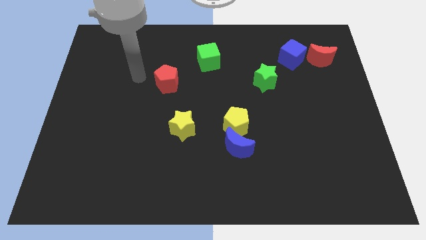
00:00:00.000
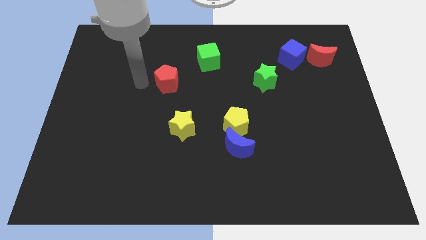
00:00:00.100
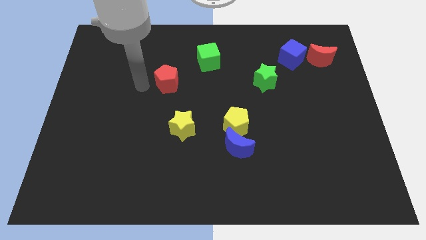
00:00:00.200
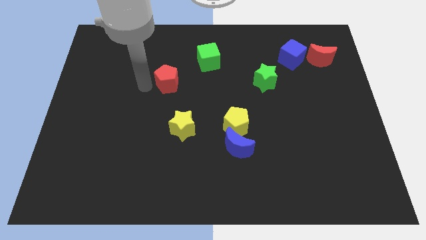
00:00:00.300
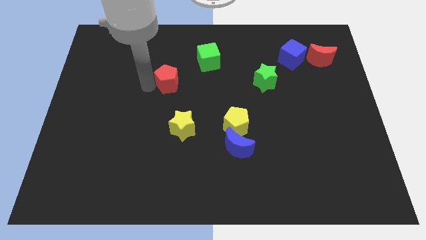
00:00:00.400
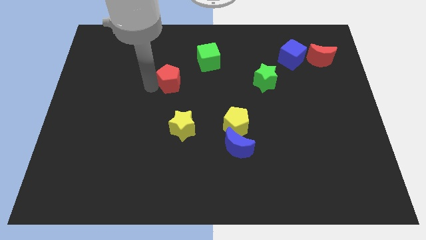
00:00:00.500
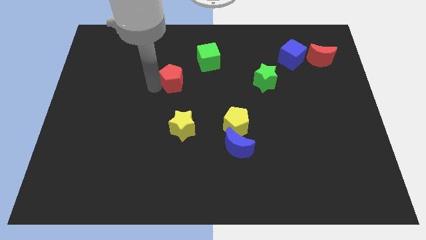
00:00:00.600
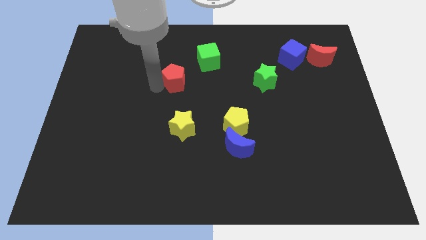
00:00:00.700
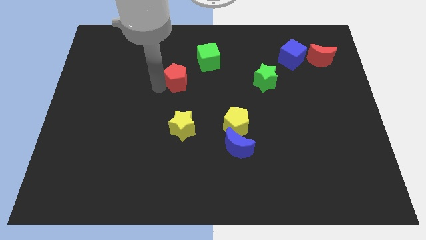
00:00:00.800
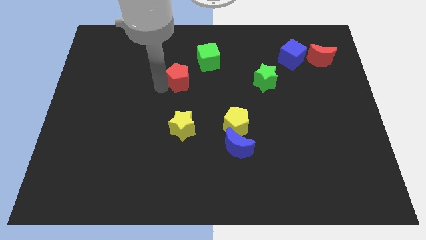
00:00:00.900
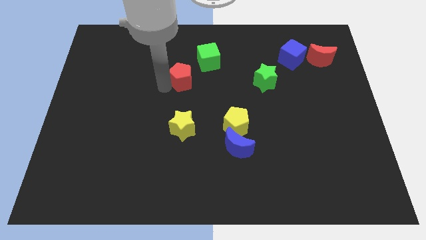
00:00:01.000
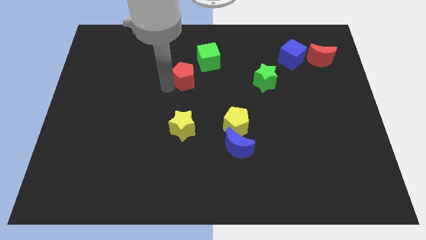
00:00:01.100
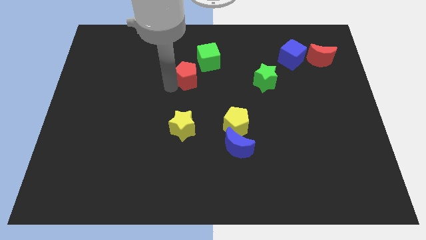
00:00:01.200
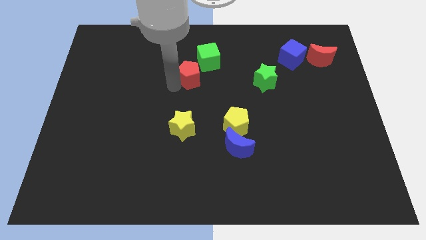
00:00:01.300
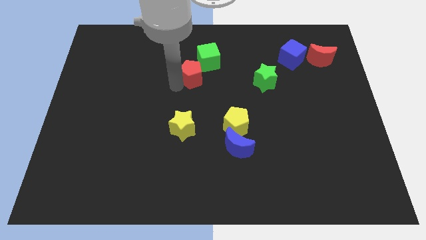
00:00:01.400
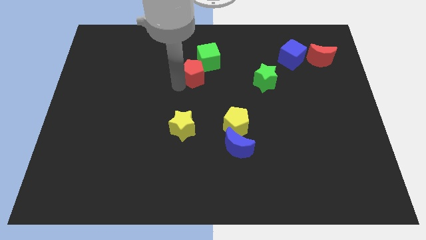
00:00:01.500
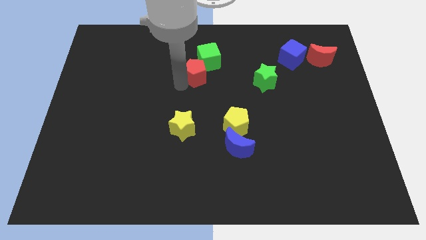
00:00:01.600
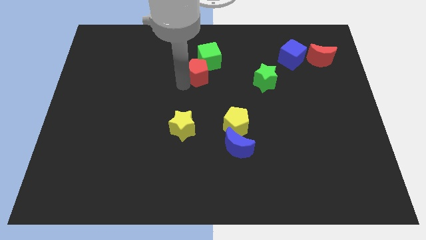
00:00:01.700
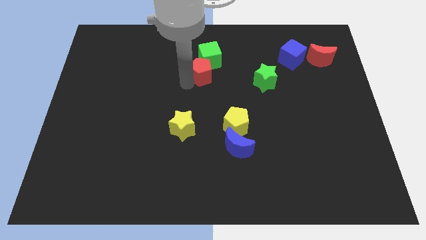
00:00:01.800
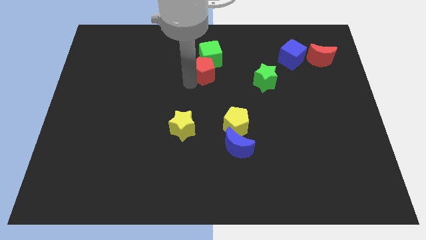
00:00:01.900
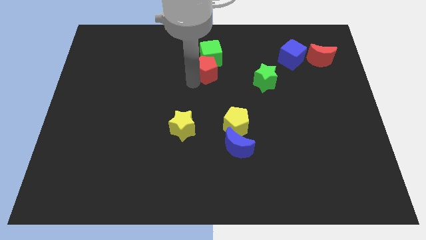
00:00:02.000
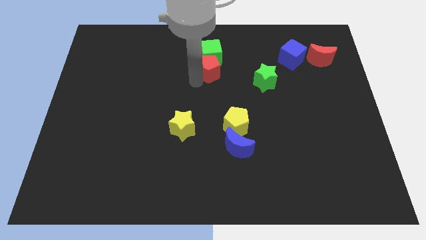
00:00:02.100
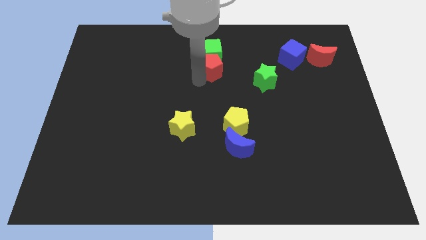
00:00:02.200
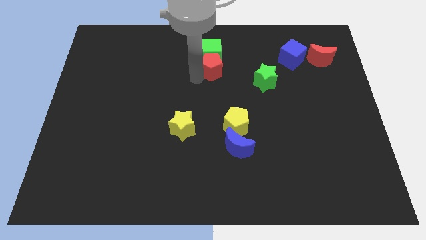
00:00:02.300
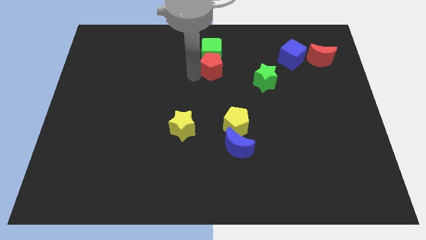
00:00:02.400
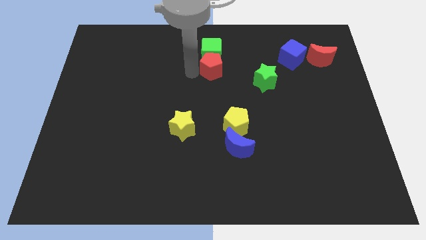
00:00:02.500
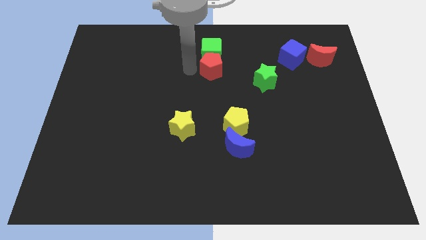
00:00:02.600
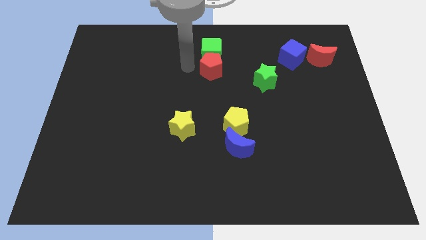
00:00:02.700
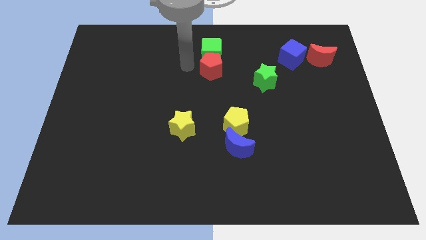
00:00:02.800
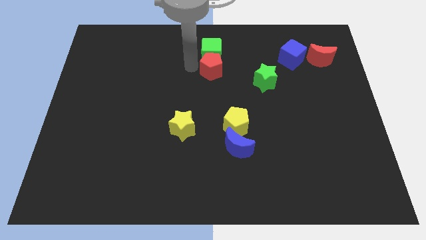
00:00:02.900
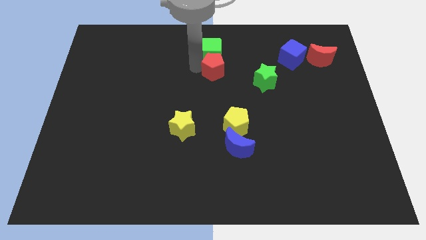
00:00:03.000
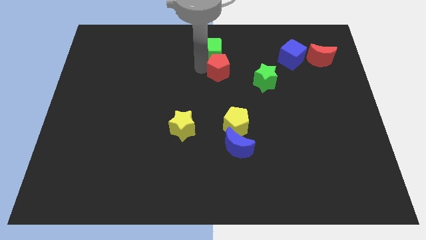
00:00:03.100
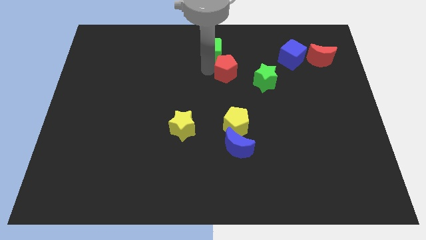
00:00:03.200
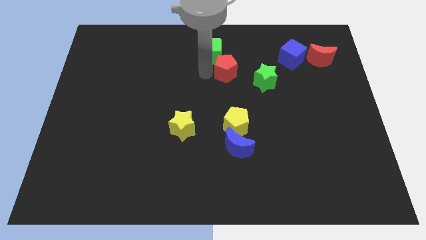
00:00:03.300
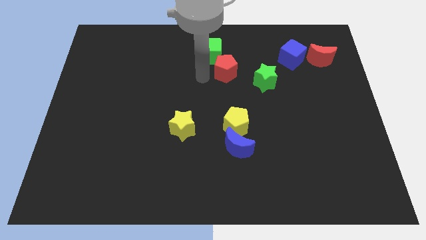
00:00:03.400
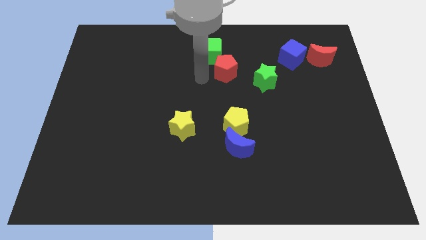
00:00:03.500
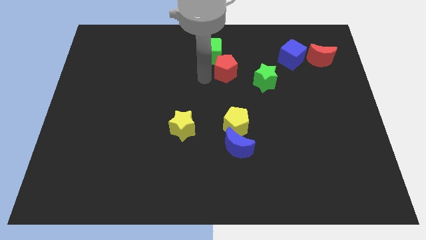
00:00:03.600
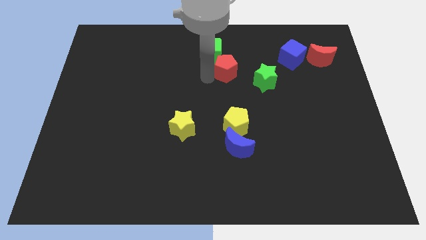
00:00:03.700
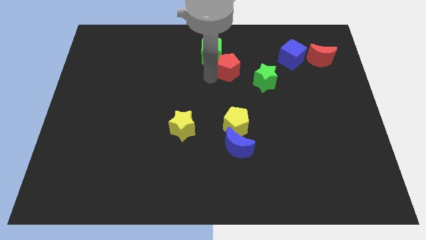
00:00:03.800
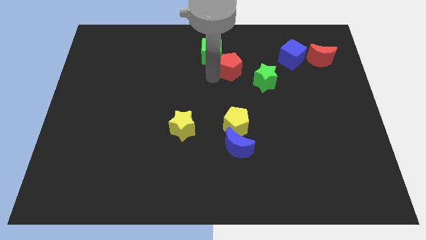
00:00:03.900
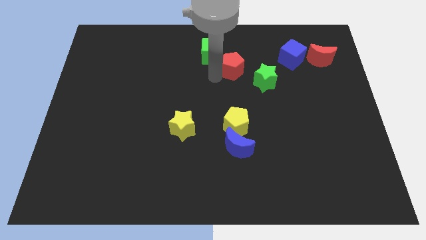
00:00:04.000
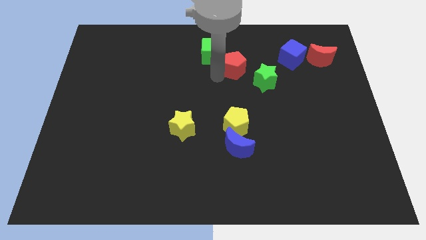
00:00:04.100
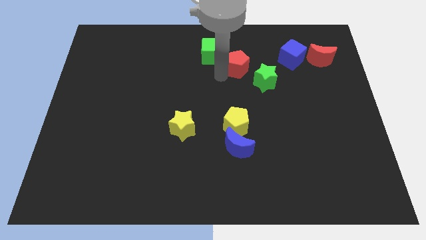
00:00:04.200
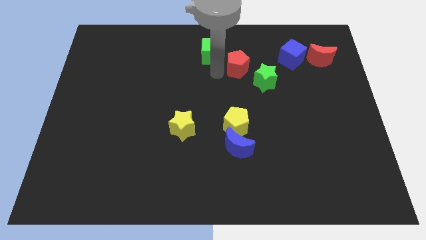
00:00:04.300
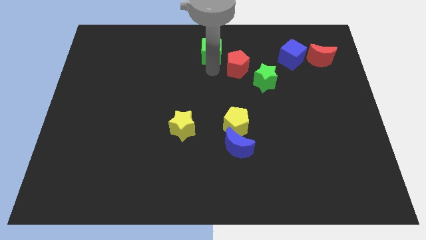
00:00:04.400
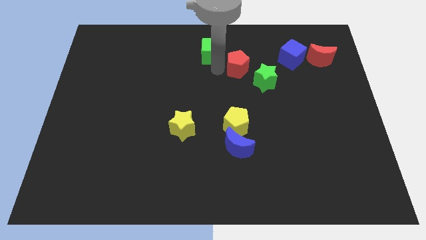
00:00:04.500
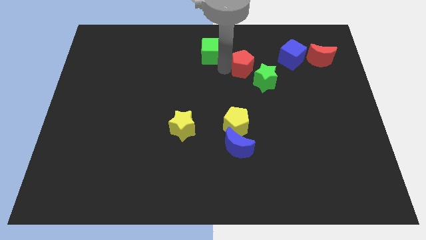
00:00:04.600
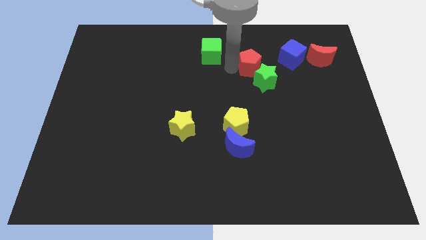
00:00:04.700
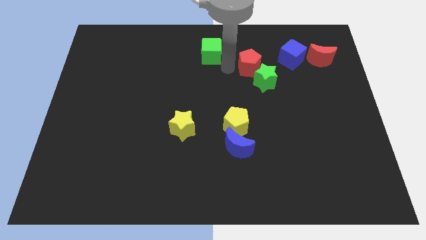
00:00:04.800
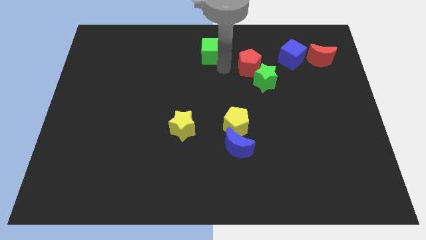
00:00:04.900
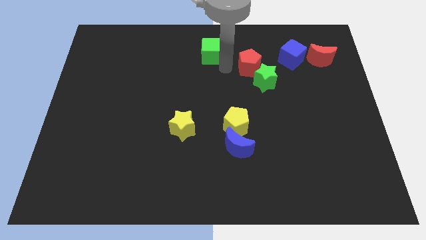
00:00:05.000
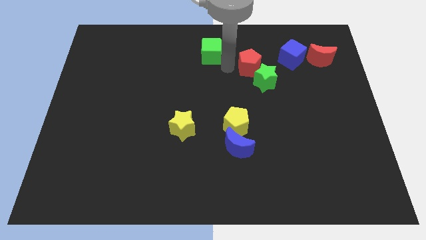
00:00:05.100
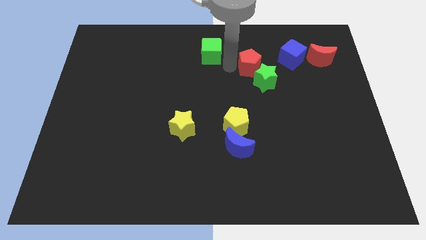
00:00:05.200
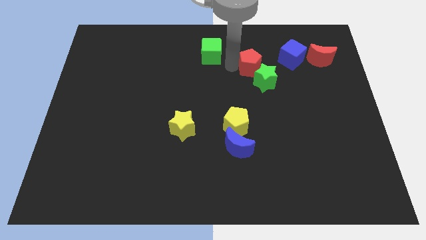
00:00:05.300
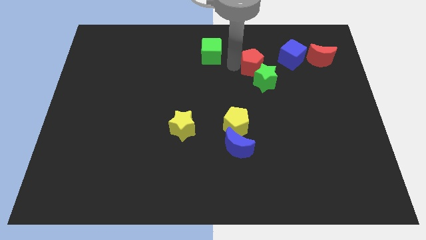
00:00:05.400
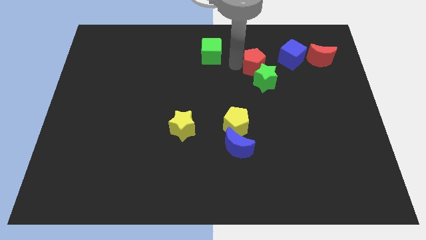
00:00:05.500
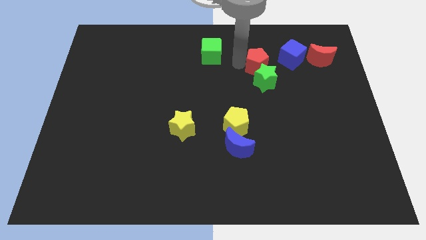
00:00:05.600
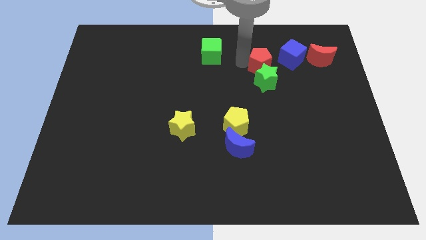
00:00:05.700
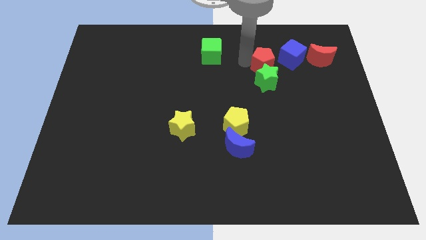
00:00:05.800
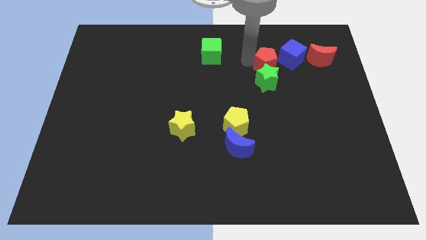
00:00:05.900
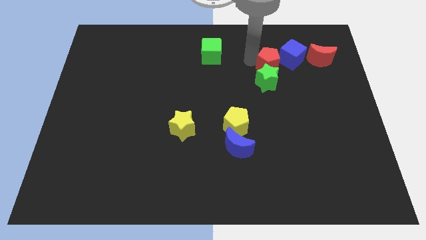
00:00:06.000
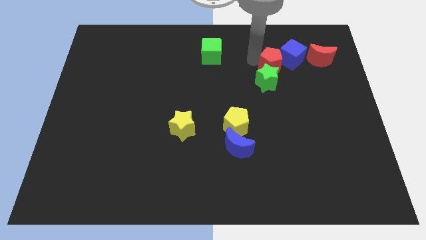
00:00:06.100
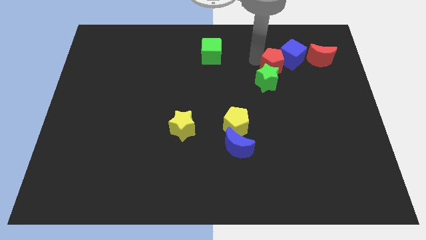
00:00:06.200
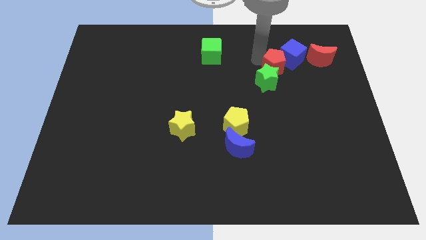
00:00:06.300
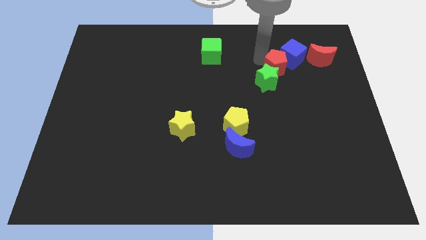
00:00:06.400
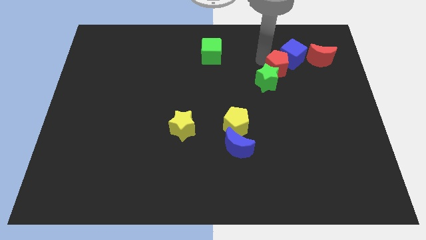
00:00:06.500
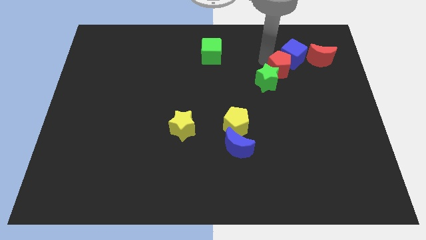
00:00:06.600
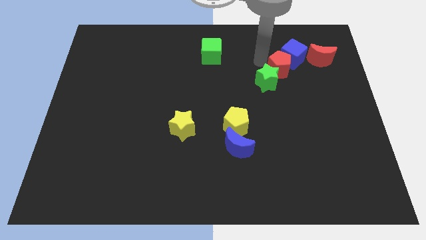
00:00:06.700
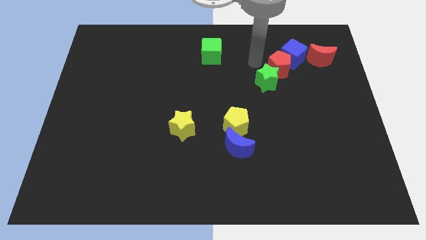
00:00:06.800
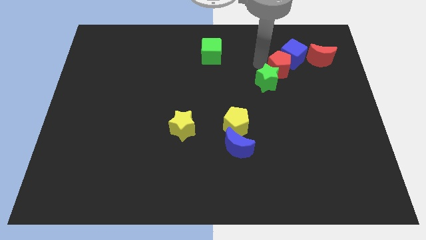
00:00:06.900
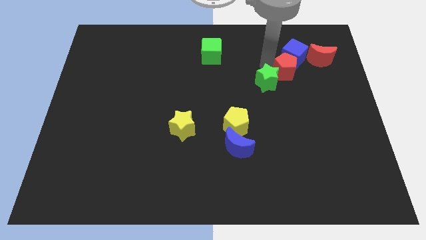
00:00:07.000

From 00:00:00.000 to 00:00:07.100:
push the red pentagon to the bottom left side of the red moon

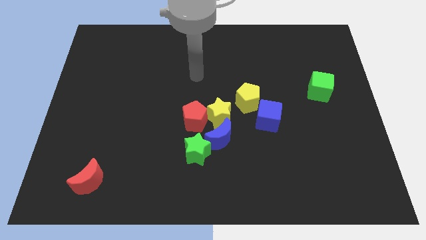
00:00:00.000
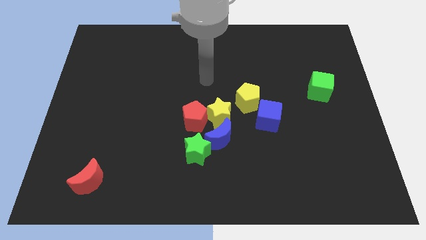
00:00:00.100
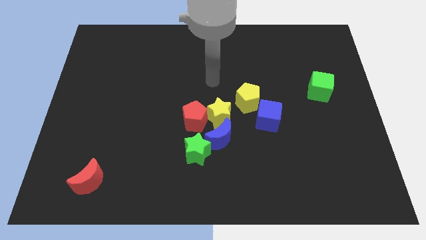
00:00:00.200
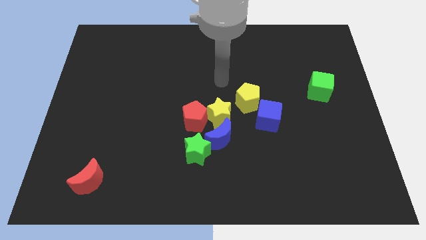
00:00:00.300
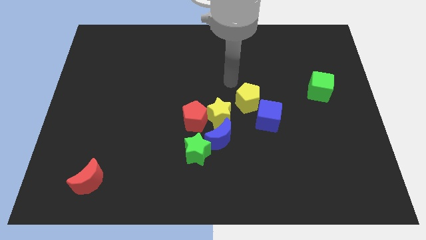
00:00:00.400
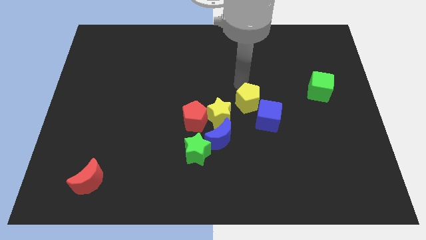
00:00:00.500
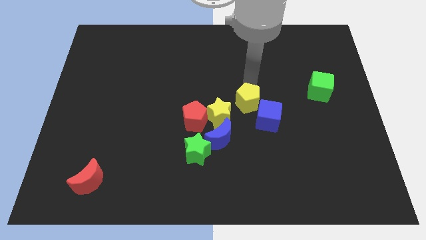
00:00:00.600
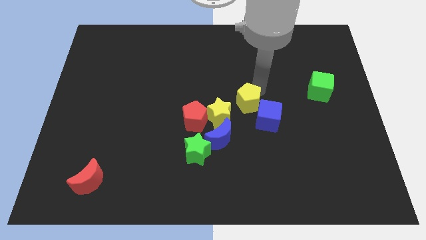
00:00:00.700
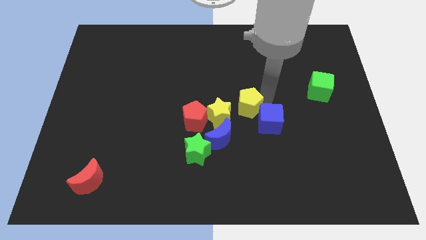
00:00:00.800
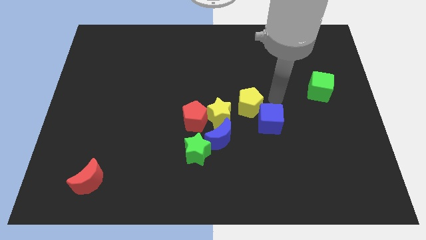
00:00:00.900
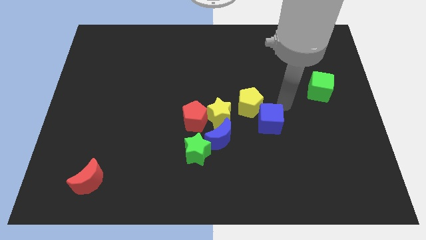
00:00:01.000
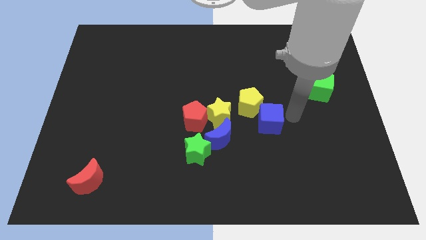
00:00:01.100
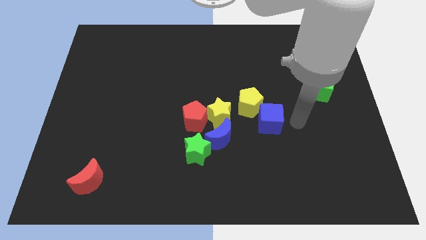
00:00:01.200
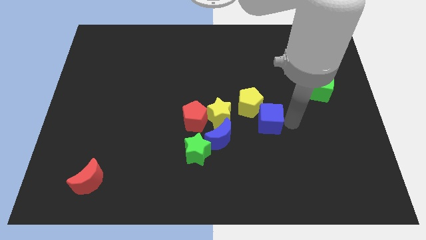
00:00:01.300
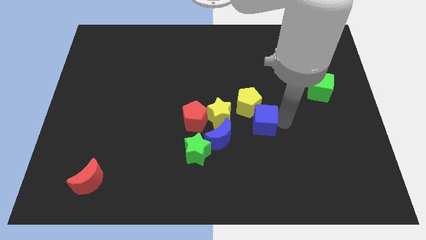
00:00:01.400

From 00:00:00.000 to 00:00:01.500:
put the blue cube to the top right side of the blue moon
